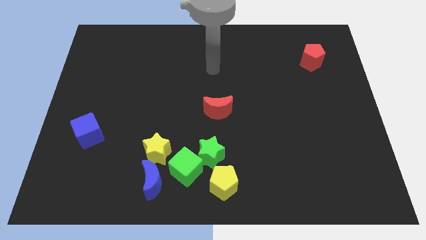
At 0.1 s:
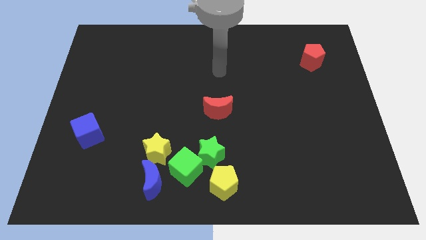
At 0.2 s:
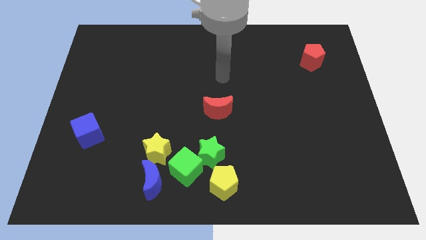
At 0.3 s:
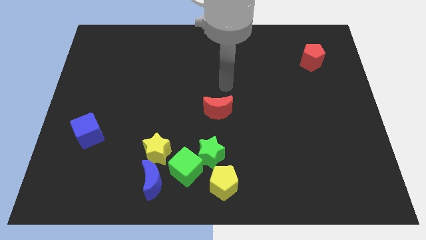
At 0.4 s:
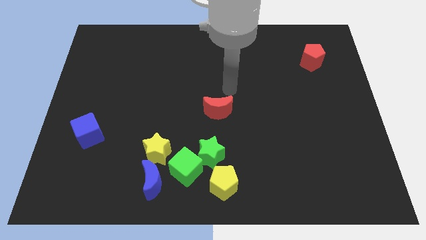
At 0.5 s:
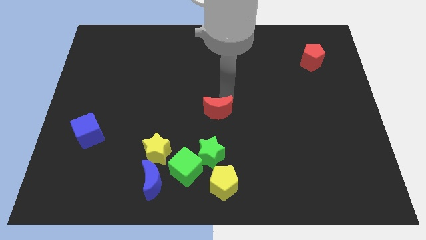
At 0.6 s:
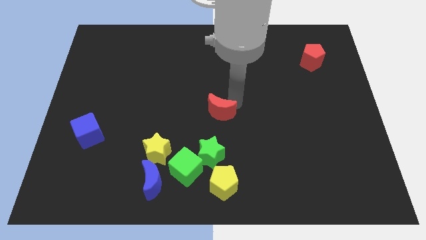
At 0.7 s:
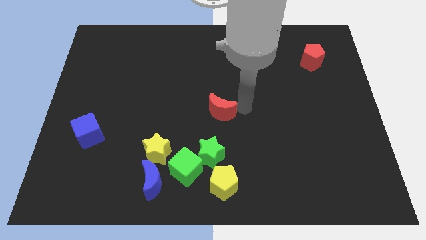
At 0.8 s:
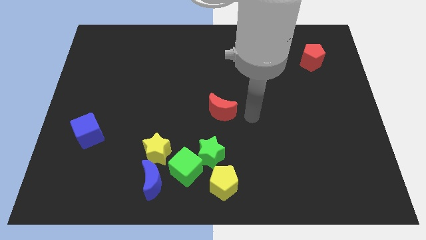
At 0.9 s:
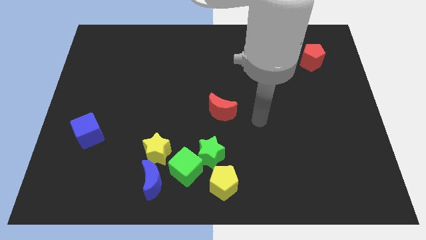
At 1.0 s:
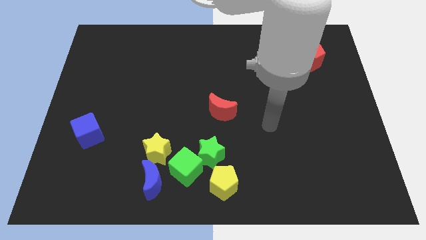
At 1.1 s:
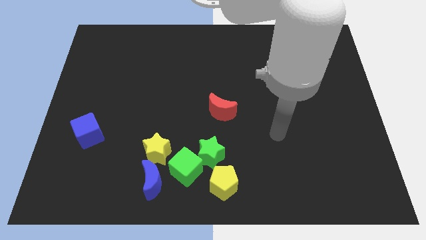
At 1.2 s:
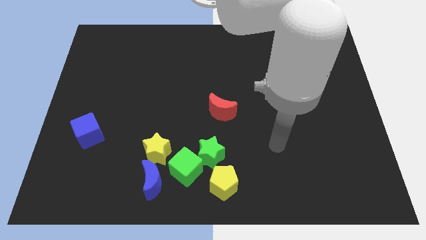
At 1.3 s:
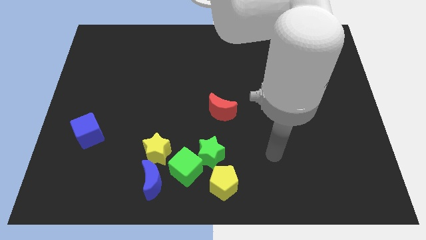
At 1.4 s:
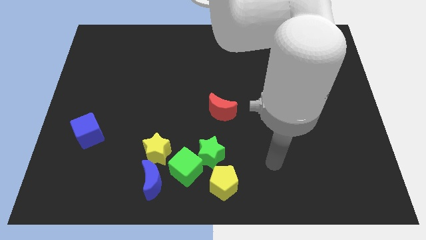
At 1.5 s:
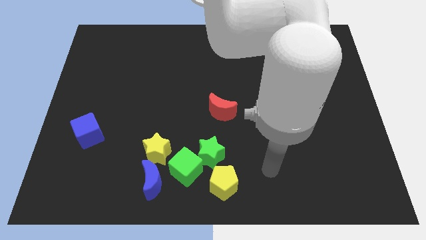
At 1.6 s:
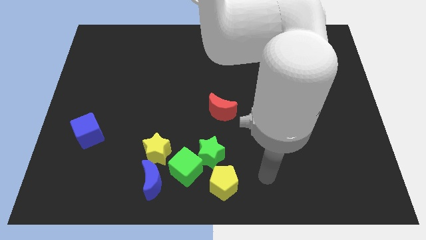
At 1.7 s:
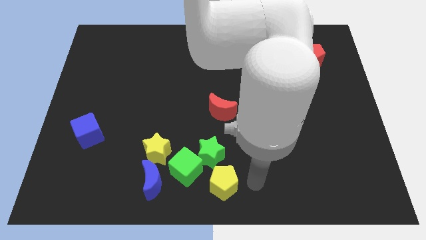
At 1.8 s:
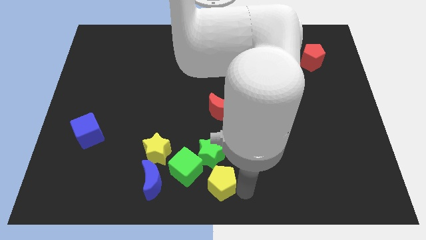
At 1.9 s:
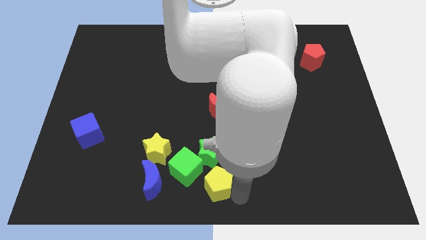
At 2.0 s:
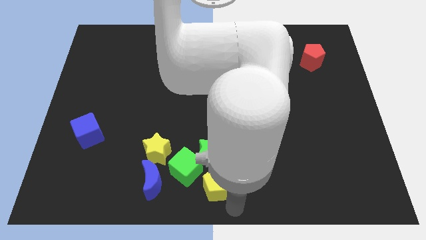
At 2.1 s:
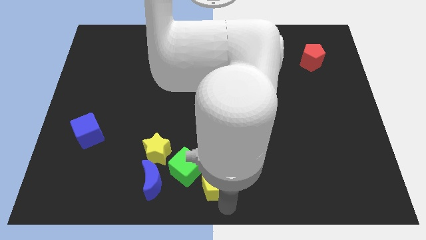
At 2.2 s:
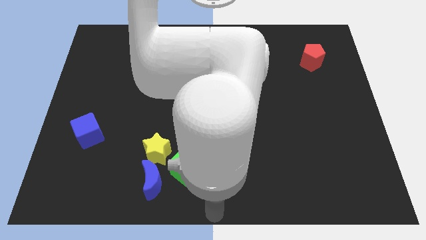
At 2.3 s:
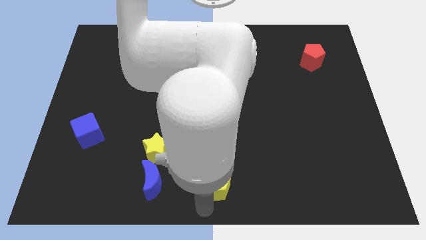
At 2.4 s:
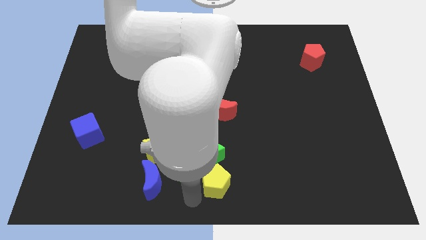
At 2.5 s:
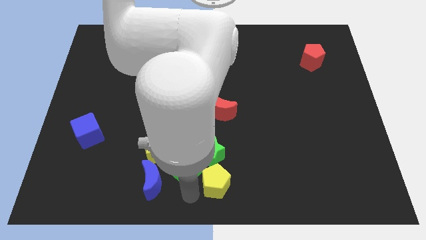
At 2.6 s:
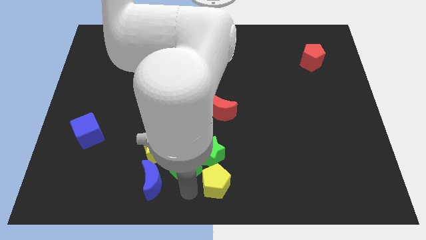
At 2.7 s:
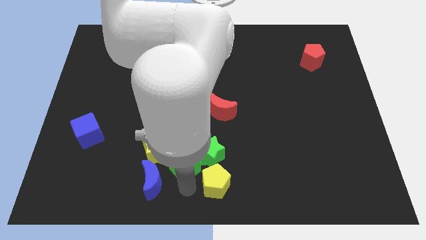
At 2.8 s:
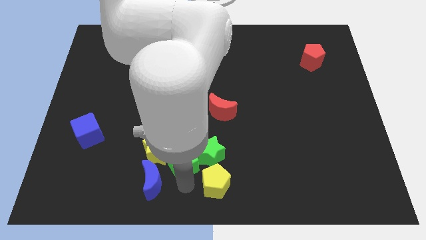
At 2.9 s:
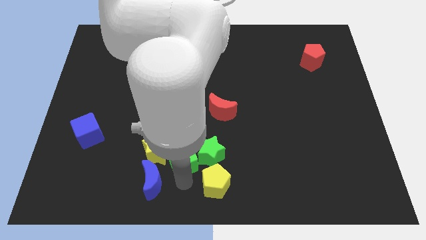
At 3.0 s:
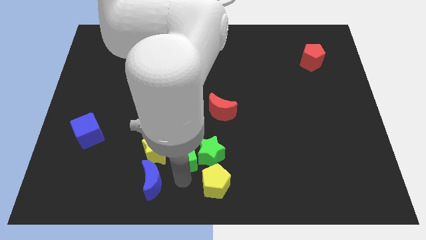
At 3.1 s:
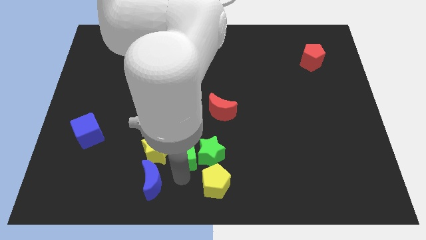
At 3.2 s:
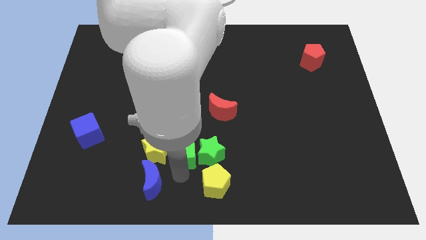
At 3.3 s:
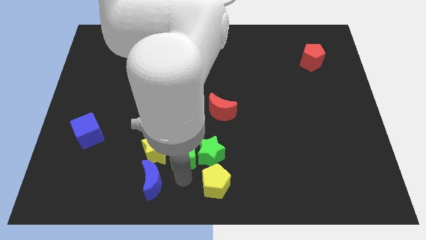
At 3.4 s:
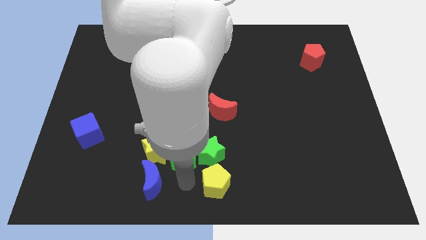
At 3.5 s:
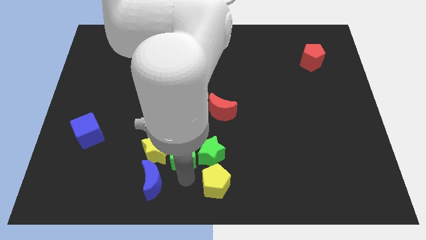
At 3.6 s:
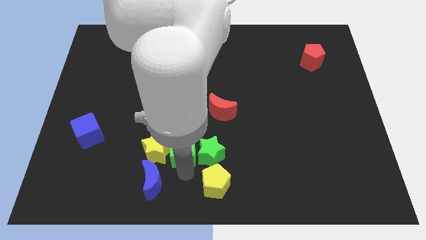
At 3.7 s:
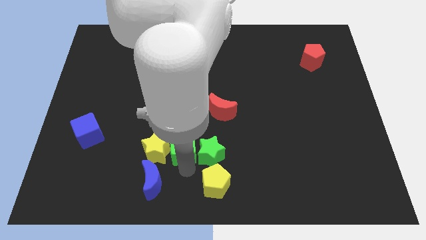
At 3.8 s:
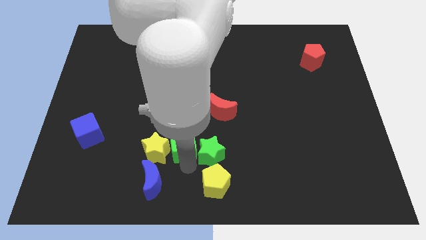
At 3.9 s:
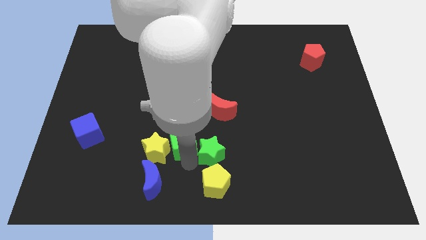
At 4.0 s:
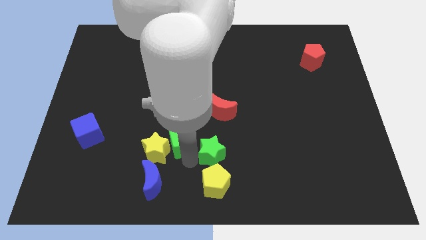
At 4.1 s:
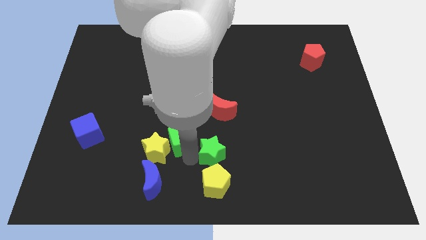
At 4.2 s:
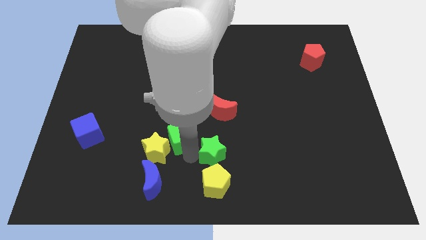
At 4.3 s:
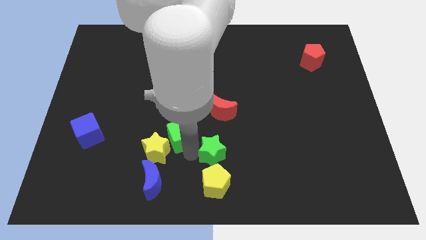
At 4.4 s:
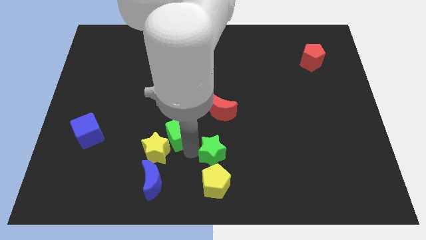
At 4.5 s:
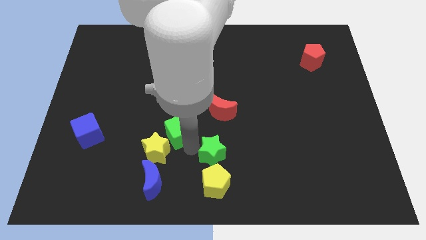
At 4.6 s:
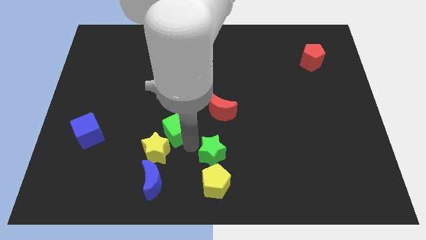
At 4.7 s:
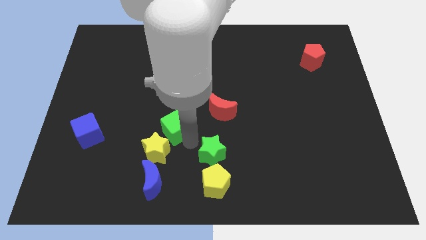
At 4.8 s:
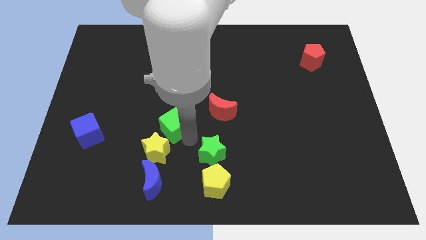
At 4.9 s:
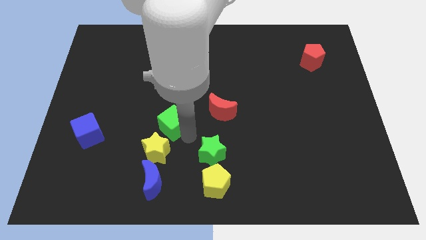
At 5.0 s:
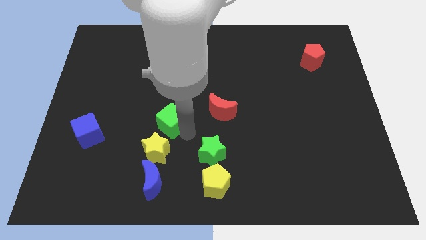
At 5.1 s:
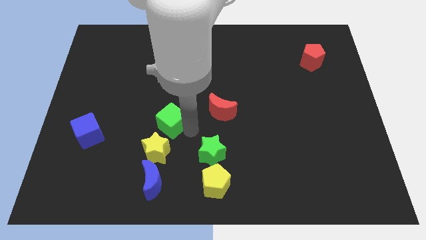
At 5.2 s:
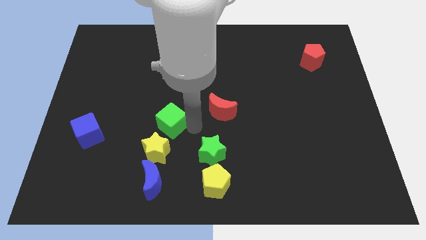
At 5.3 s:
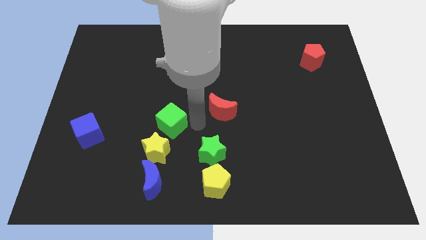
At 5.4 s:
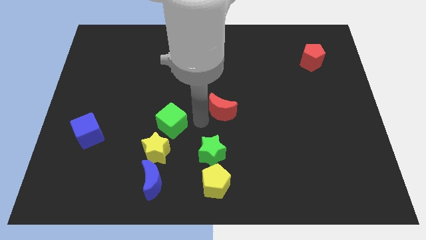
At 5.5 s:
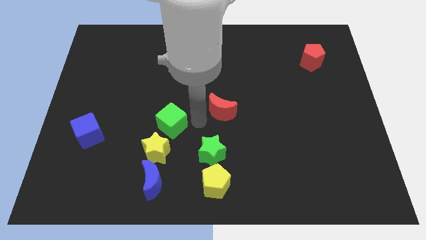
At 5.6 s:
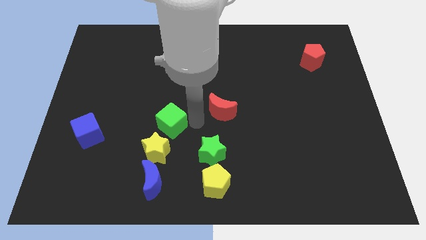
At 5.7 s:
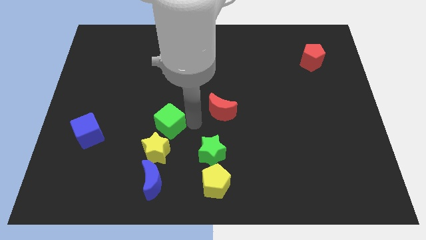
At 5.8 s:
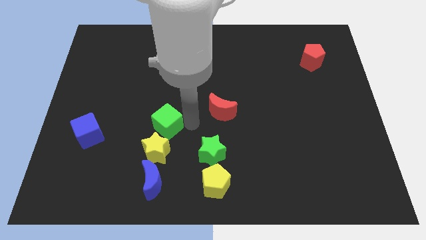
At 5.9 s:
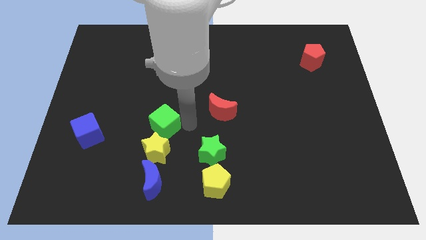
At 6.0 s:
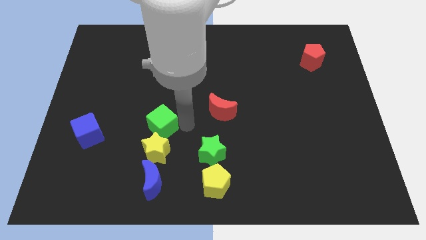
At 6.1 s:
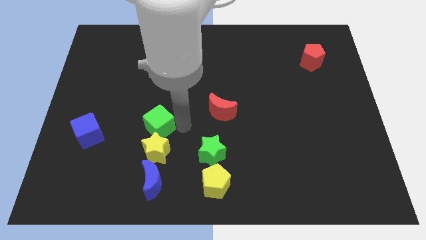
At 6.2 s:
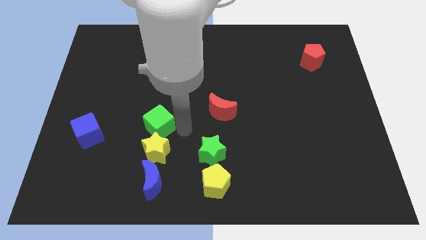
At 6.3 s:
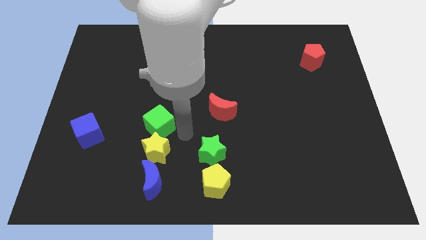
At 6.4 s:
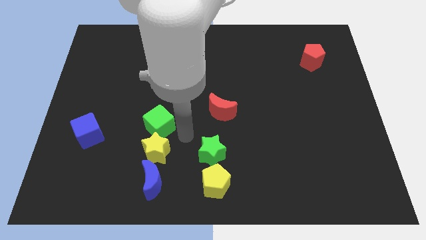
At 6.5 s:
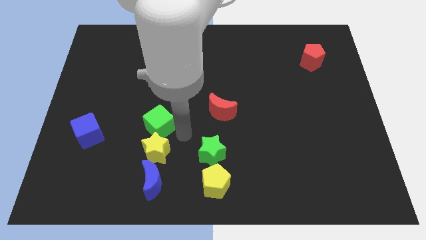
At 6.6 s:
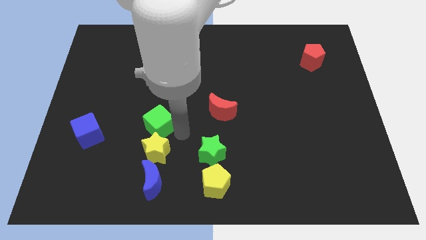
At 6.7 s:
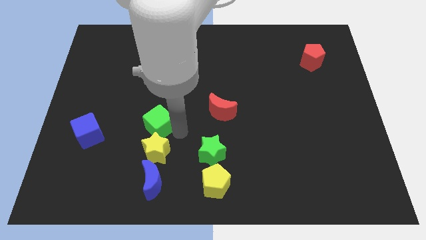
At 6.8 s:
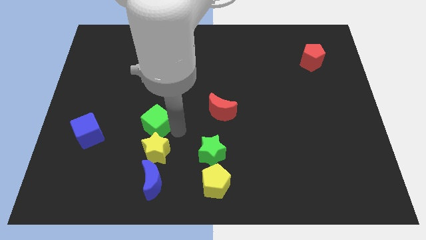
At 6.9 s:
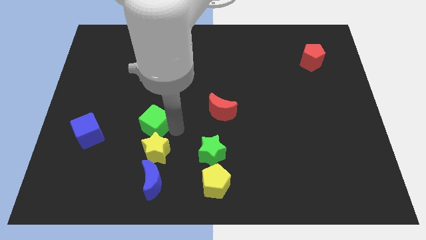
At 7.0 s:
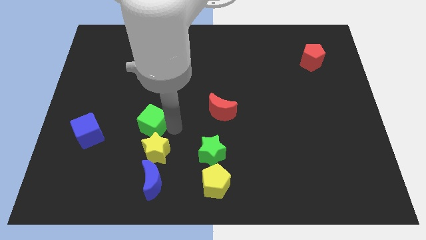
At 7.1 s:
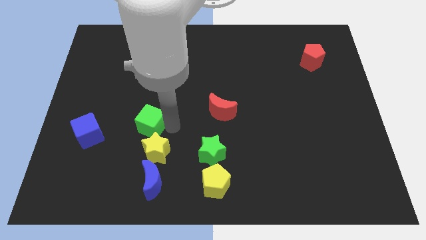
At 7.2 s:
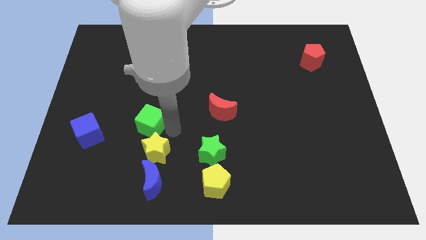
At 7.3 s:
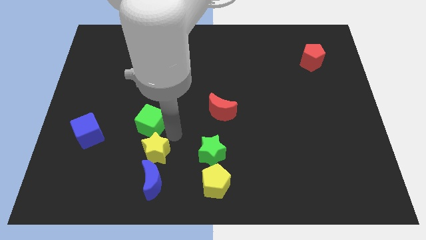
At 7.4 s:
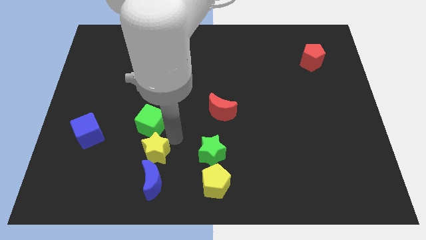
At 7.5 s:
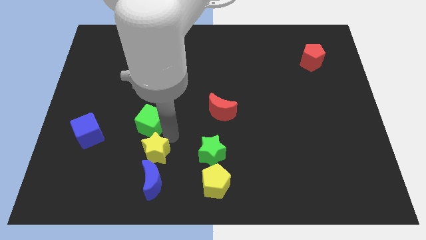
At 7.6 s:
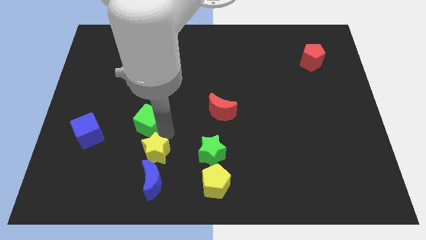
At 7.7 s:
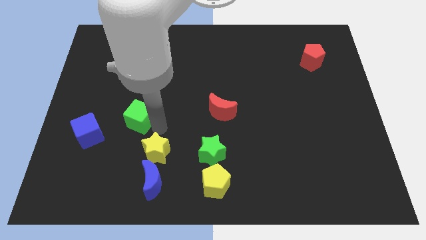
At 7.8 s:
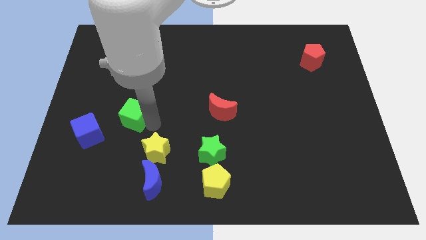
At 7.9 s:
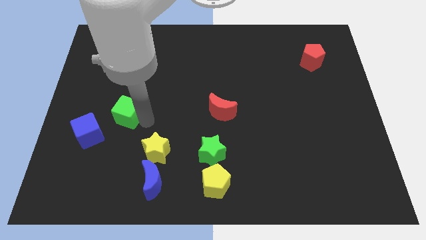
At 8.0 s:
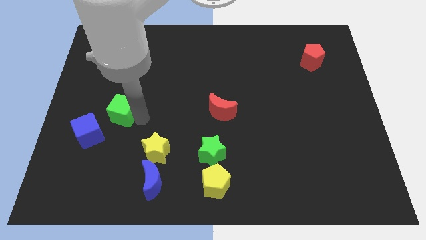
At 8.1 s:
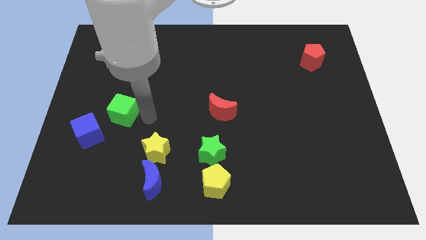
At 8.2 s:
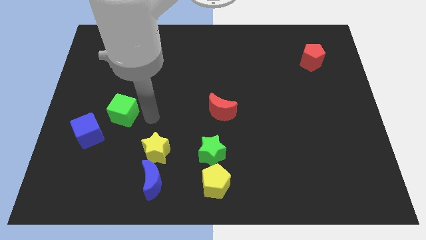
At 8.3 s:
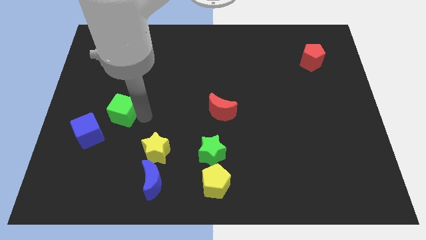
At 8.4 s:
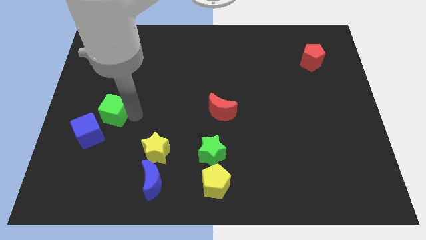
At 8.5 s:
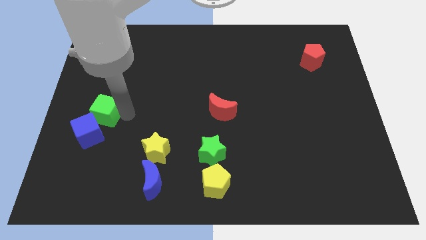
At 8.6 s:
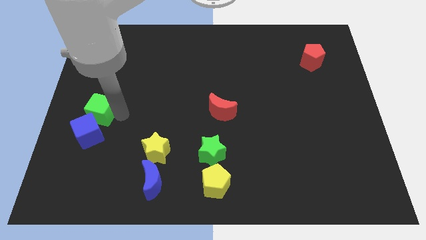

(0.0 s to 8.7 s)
slide the green cube to the center left
